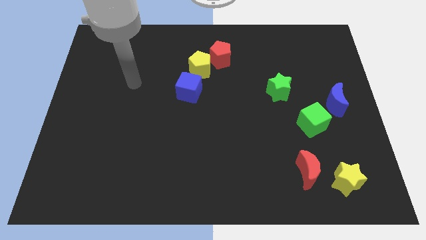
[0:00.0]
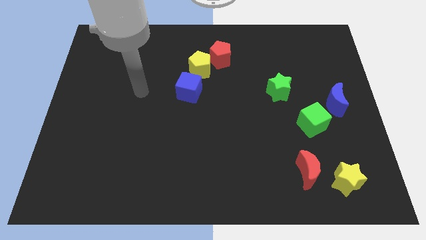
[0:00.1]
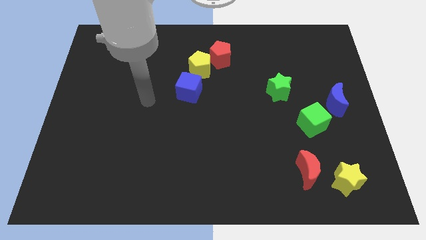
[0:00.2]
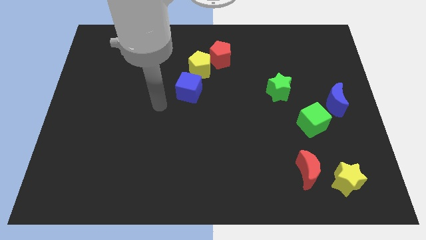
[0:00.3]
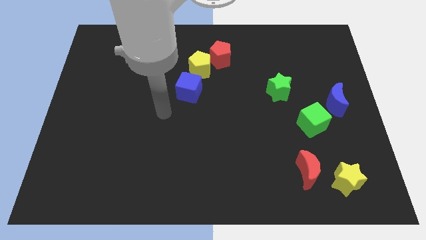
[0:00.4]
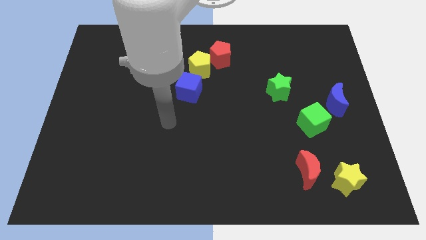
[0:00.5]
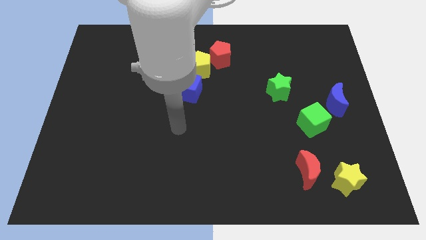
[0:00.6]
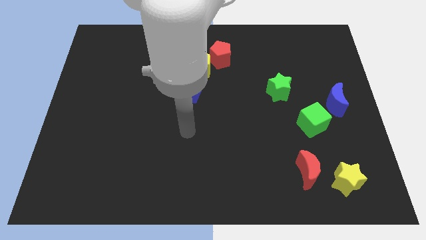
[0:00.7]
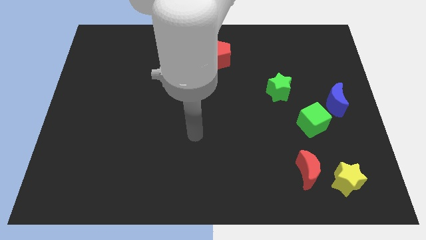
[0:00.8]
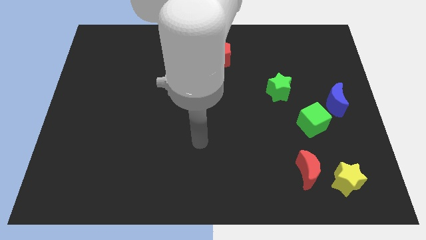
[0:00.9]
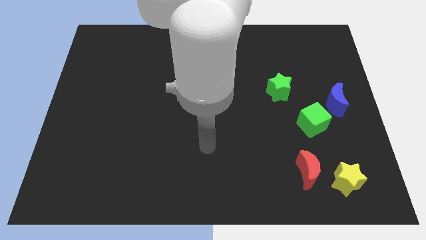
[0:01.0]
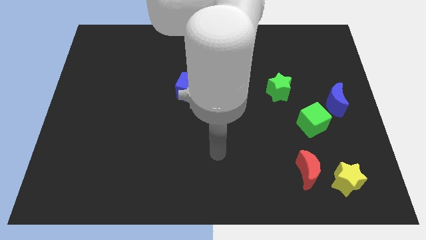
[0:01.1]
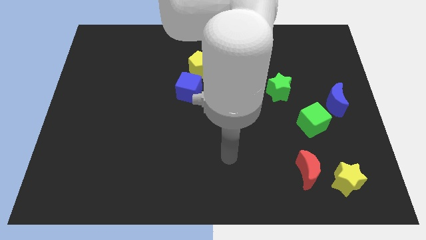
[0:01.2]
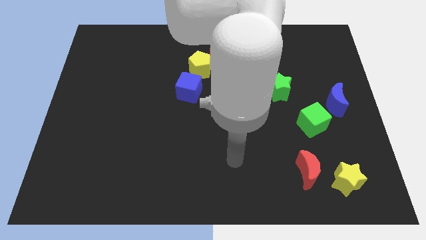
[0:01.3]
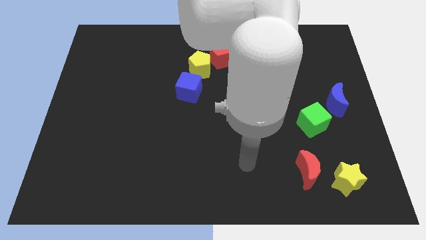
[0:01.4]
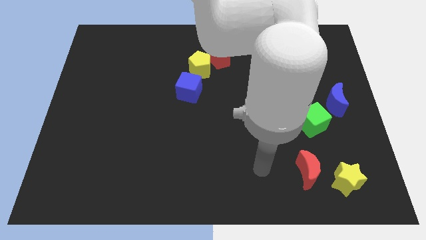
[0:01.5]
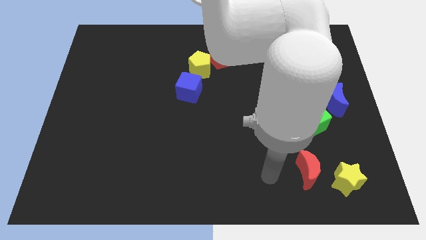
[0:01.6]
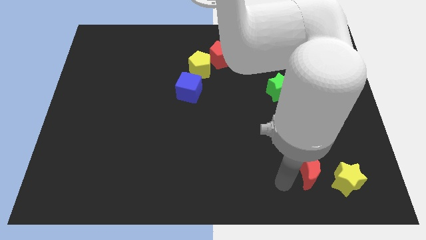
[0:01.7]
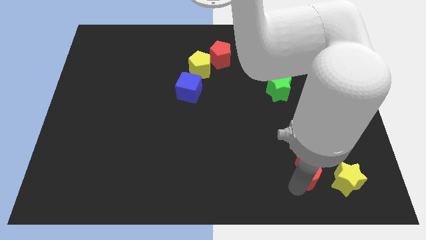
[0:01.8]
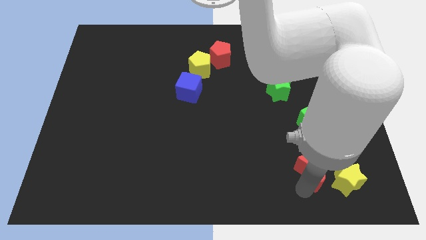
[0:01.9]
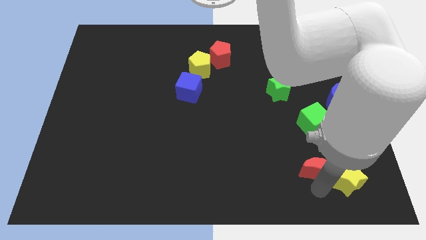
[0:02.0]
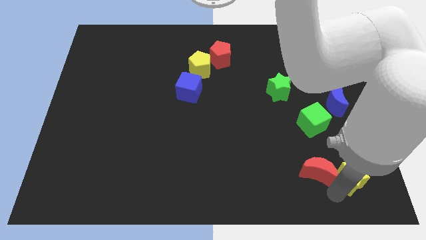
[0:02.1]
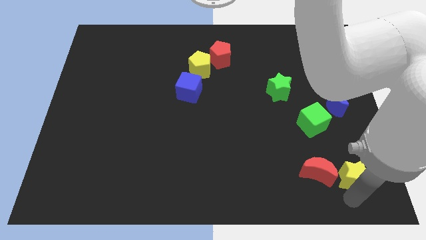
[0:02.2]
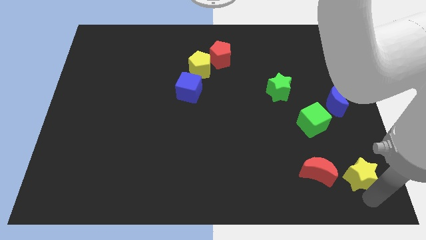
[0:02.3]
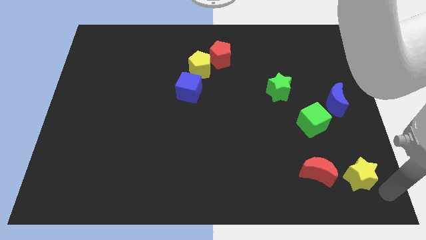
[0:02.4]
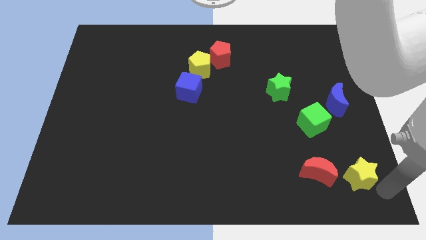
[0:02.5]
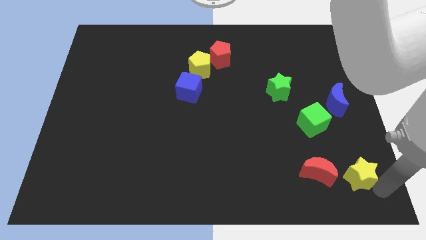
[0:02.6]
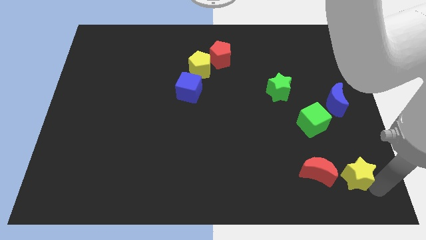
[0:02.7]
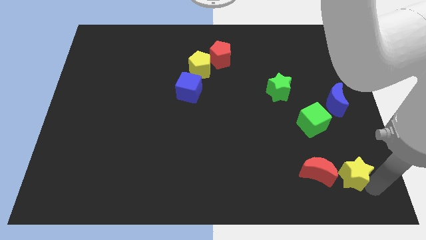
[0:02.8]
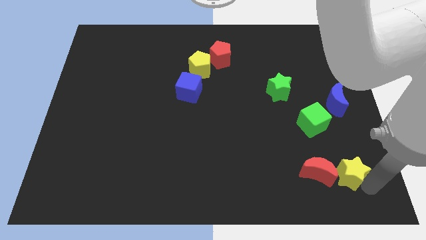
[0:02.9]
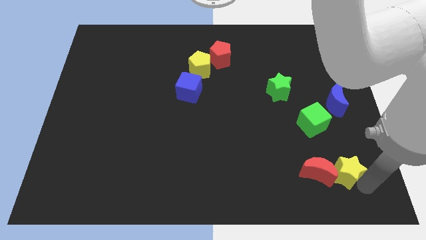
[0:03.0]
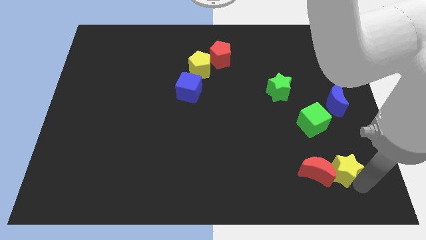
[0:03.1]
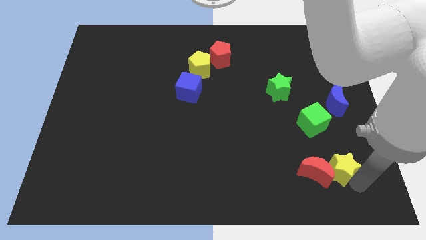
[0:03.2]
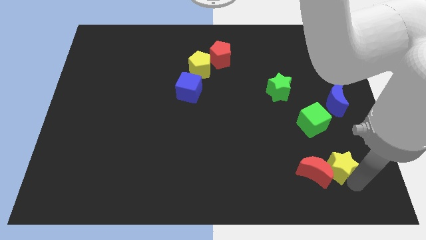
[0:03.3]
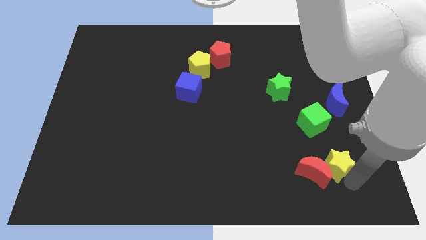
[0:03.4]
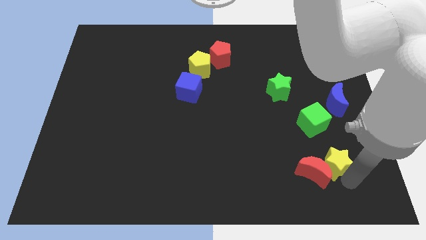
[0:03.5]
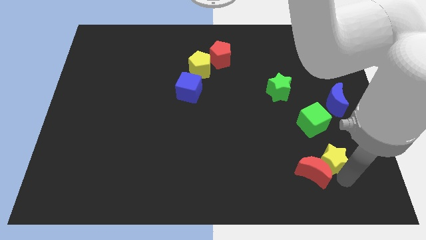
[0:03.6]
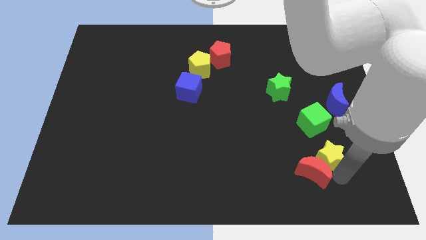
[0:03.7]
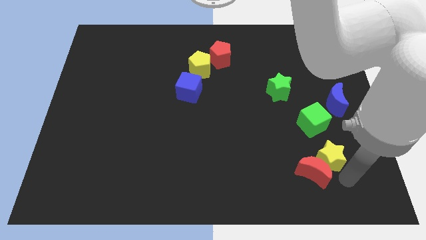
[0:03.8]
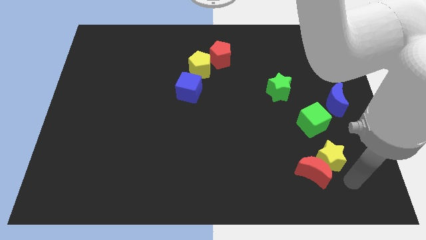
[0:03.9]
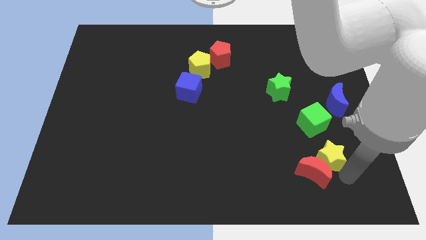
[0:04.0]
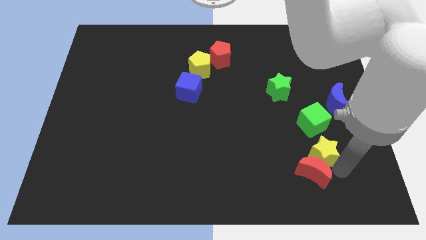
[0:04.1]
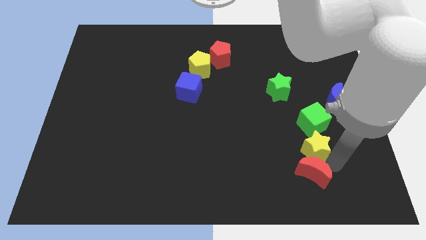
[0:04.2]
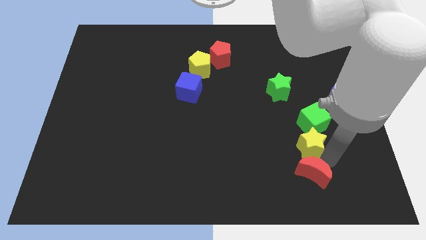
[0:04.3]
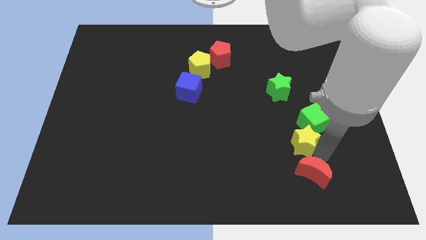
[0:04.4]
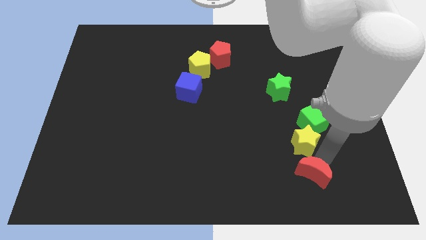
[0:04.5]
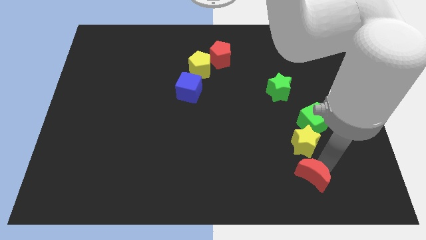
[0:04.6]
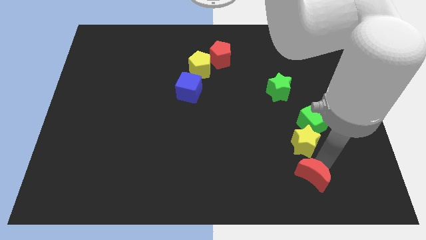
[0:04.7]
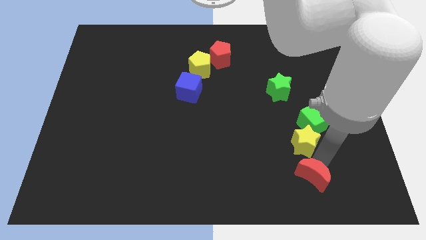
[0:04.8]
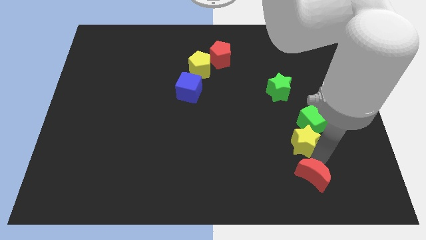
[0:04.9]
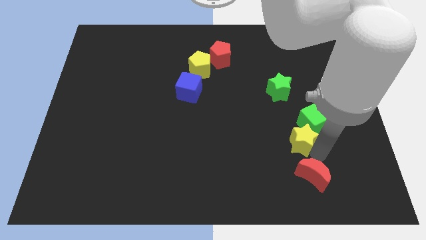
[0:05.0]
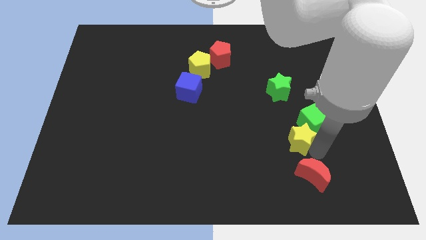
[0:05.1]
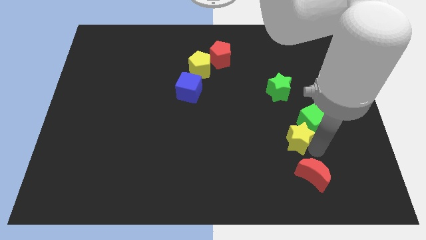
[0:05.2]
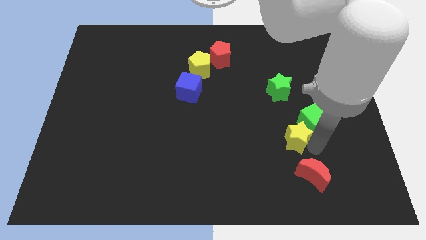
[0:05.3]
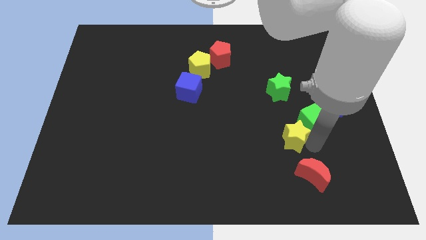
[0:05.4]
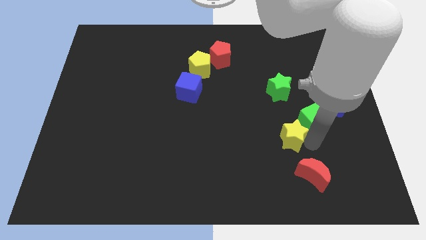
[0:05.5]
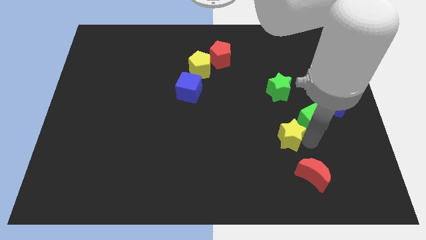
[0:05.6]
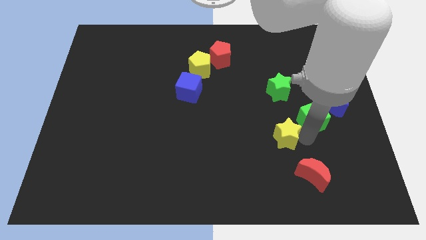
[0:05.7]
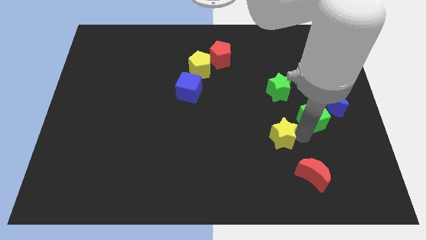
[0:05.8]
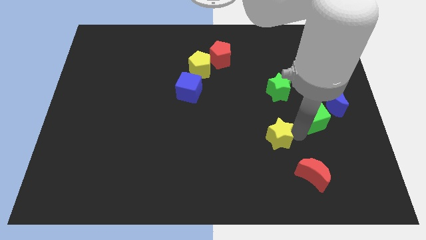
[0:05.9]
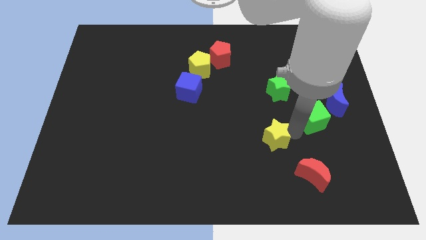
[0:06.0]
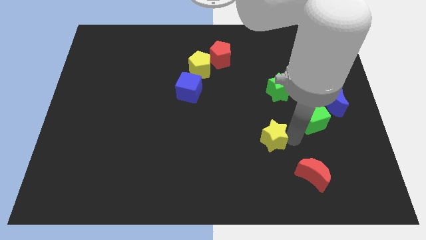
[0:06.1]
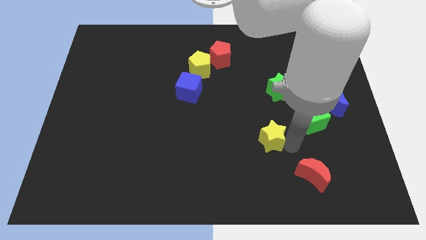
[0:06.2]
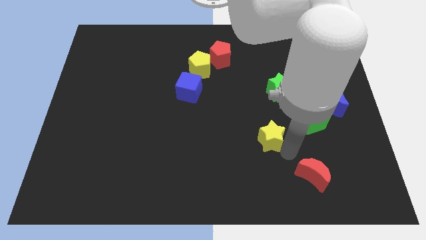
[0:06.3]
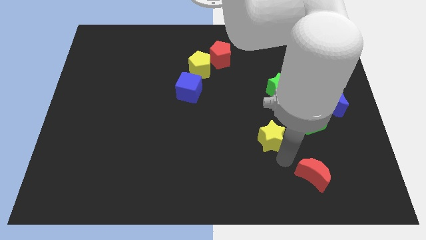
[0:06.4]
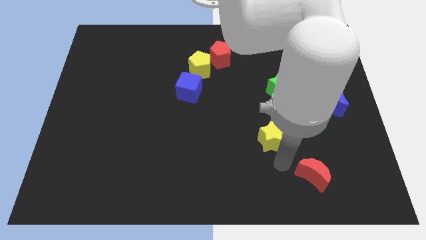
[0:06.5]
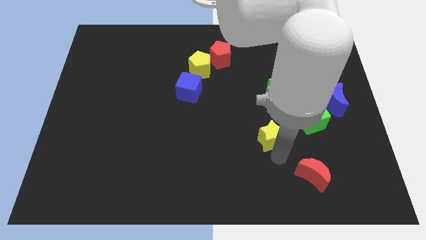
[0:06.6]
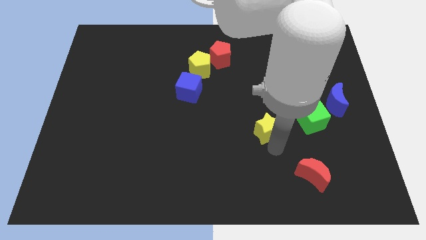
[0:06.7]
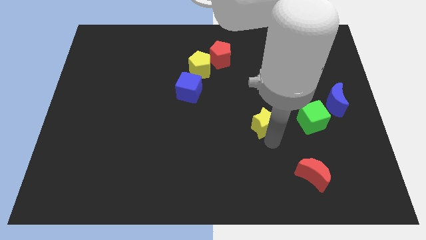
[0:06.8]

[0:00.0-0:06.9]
push the yellow star to the bottom left side of the green star
